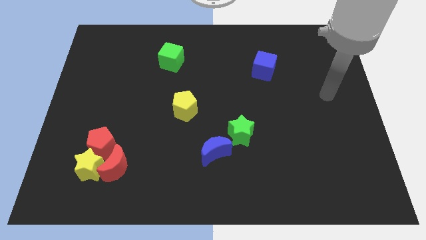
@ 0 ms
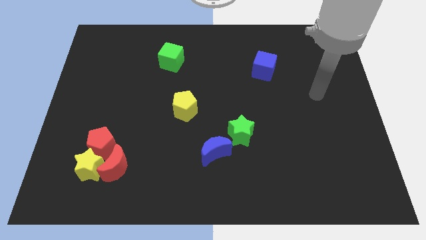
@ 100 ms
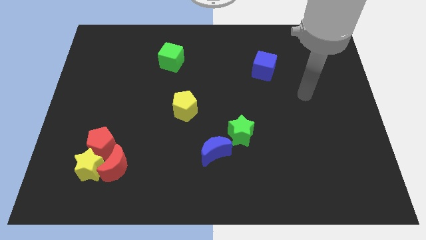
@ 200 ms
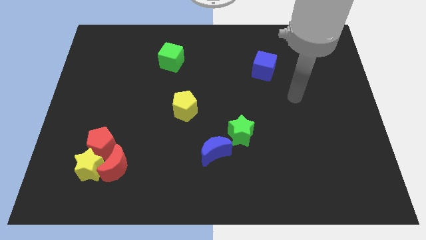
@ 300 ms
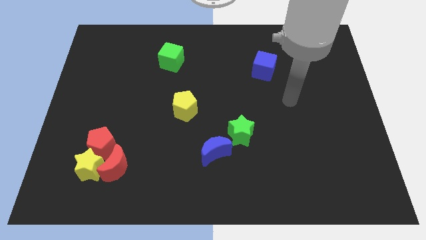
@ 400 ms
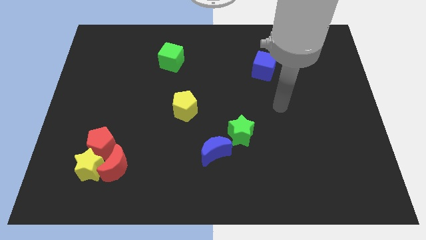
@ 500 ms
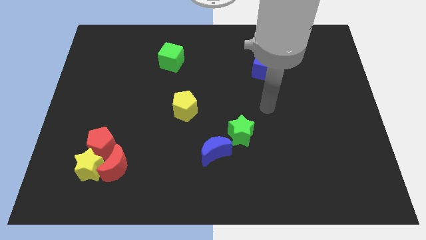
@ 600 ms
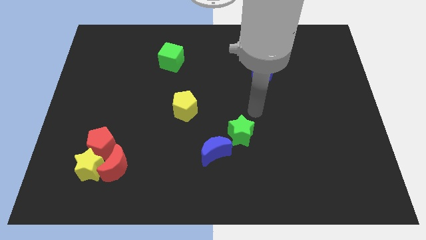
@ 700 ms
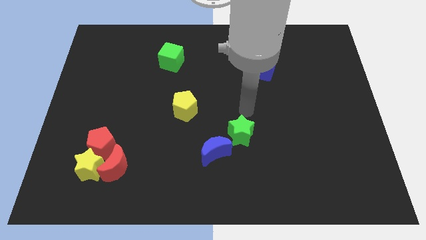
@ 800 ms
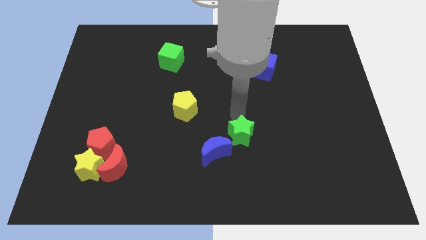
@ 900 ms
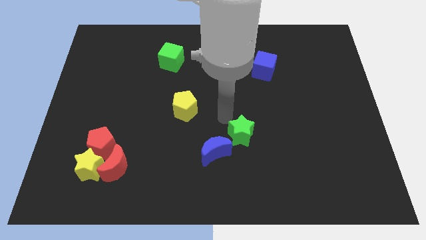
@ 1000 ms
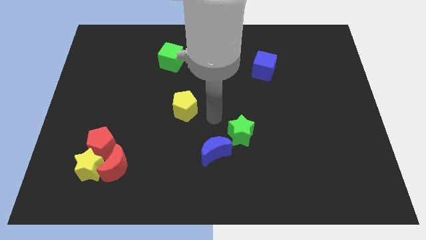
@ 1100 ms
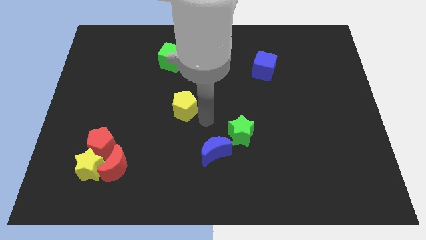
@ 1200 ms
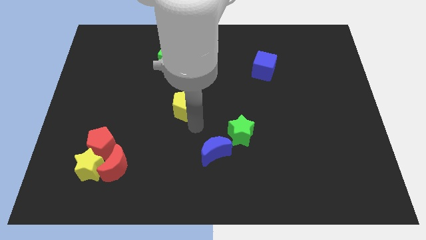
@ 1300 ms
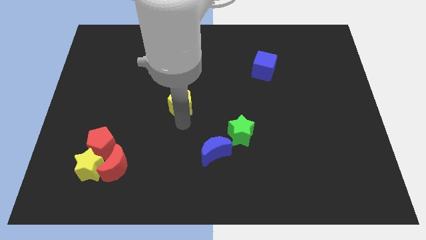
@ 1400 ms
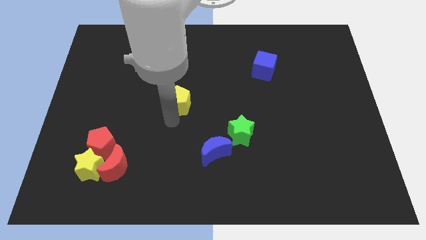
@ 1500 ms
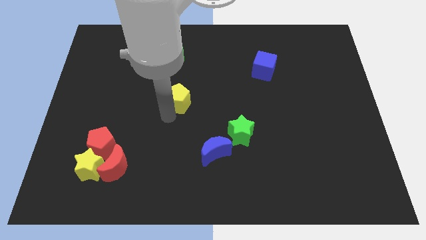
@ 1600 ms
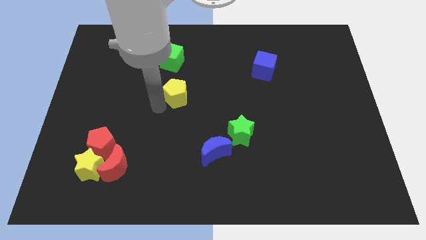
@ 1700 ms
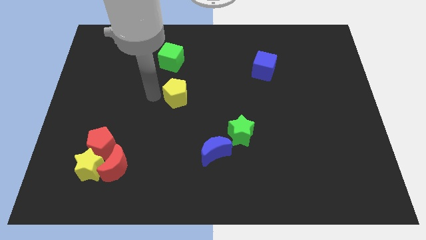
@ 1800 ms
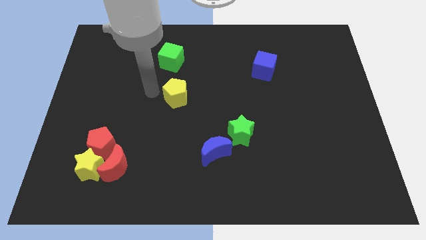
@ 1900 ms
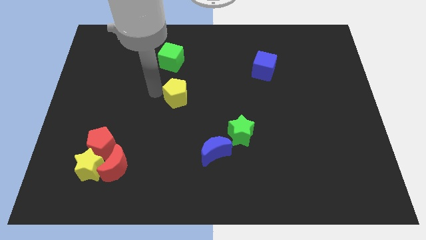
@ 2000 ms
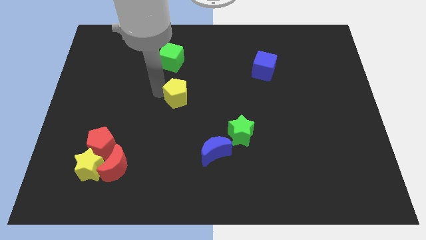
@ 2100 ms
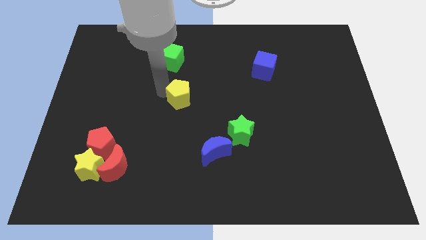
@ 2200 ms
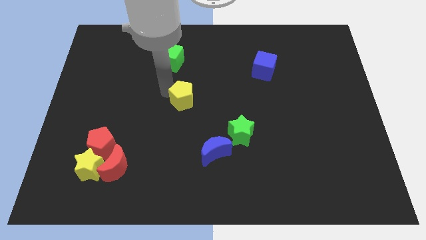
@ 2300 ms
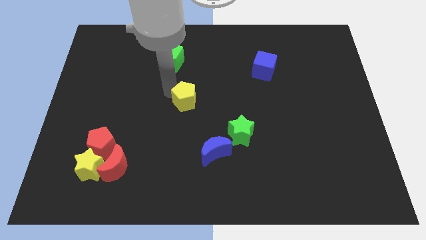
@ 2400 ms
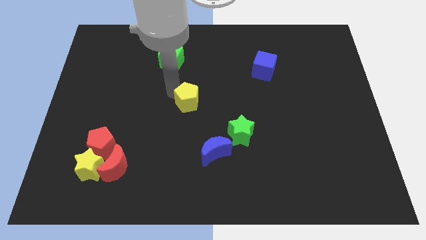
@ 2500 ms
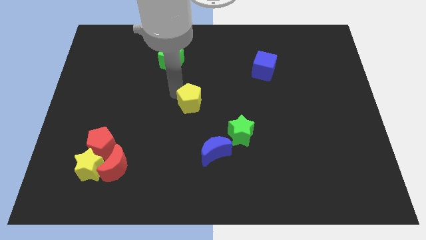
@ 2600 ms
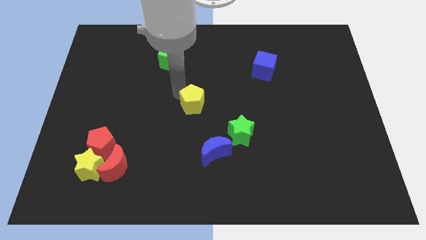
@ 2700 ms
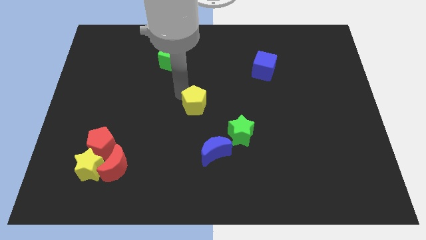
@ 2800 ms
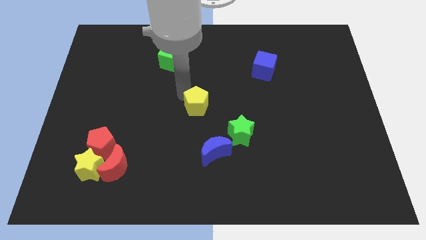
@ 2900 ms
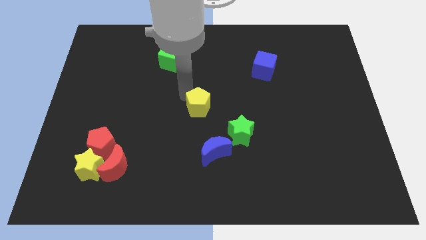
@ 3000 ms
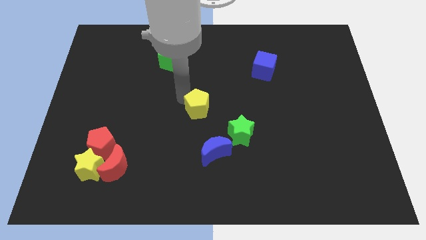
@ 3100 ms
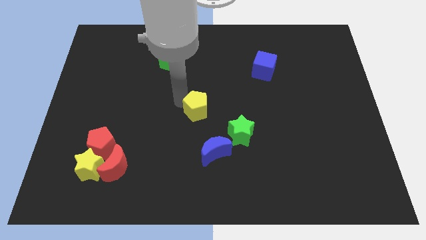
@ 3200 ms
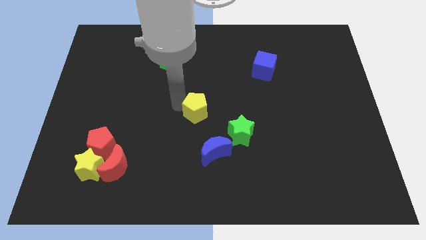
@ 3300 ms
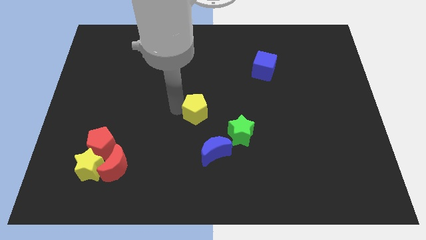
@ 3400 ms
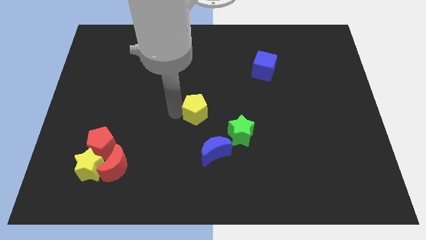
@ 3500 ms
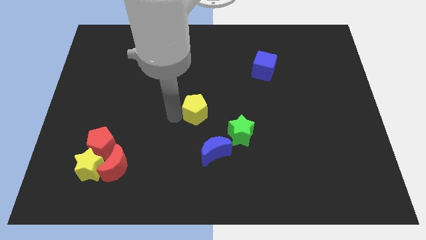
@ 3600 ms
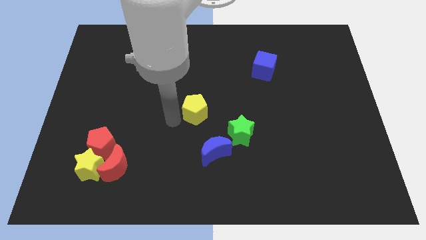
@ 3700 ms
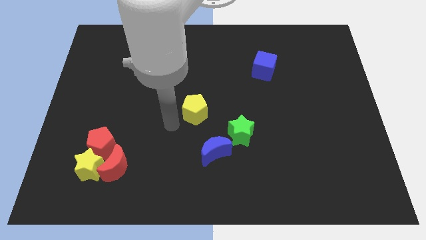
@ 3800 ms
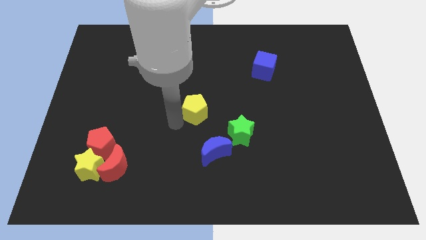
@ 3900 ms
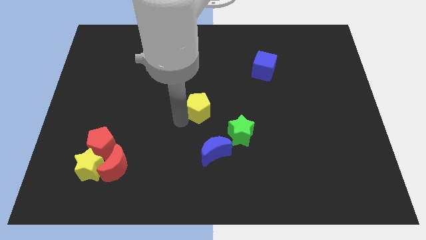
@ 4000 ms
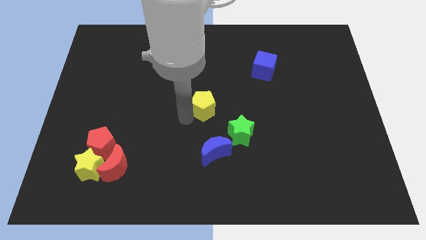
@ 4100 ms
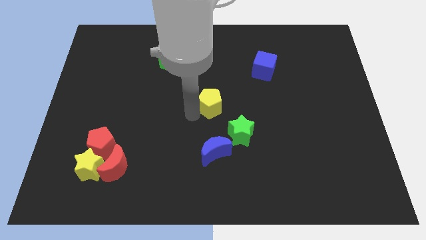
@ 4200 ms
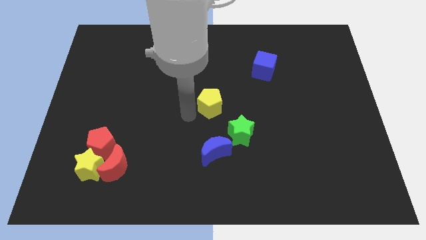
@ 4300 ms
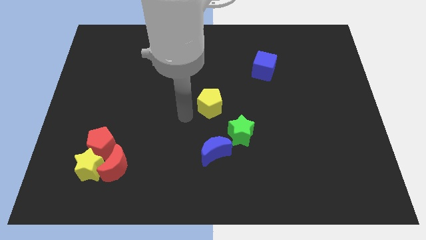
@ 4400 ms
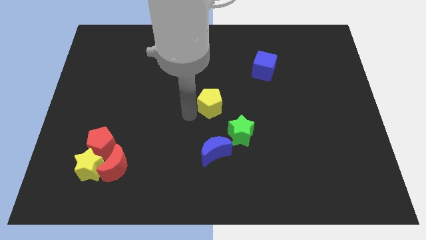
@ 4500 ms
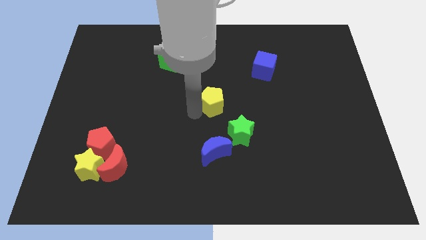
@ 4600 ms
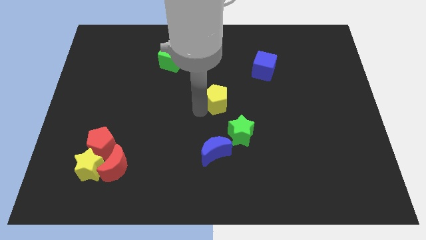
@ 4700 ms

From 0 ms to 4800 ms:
push the yellow pentagon right slightly

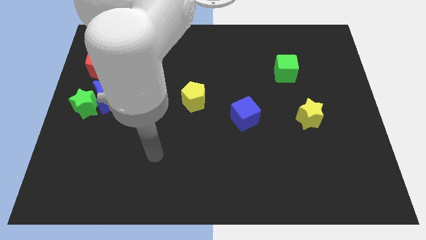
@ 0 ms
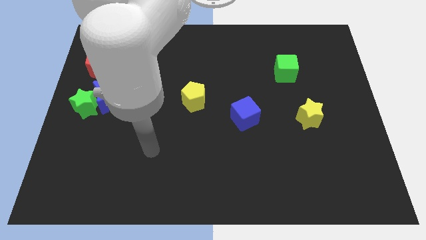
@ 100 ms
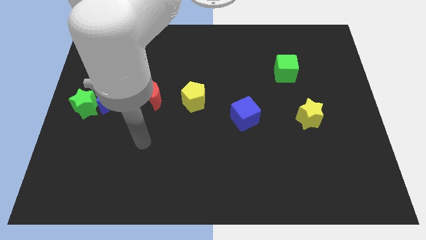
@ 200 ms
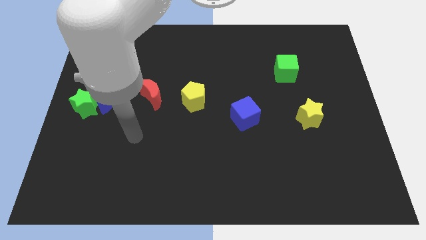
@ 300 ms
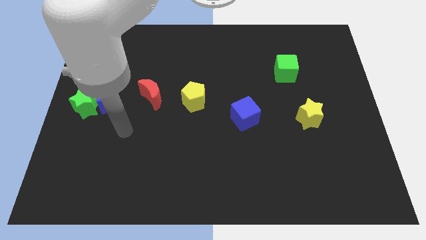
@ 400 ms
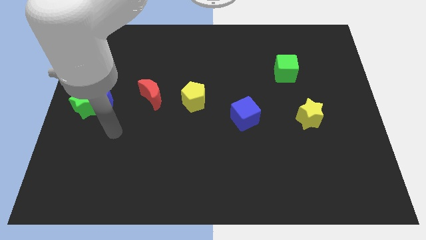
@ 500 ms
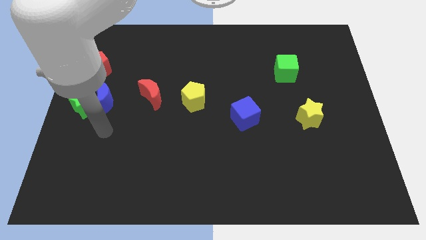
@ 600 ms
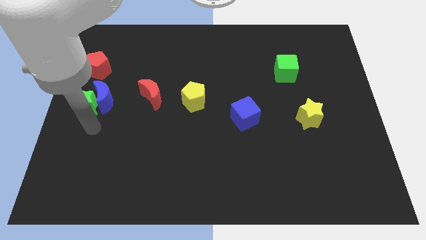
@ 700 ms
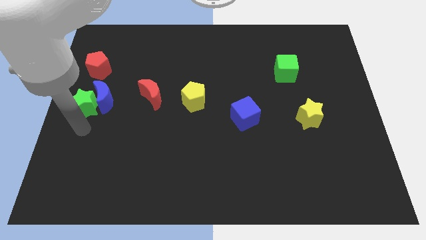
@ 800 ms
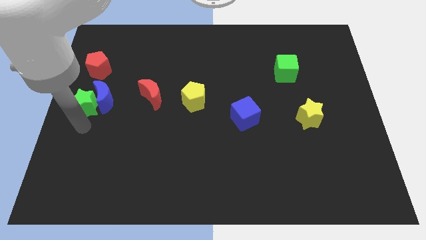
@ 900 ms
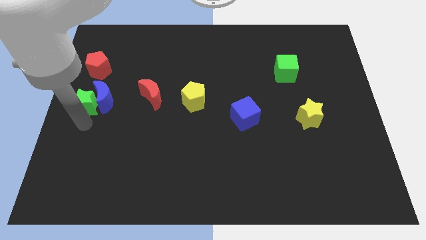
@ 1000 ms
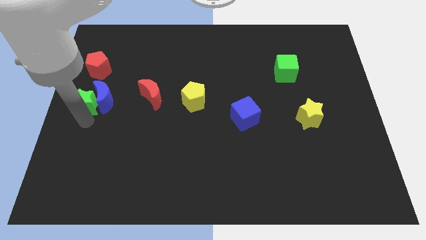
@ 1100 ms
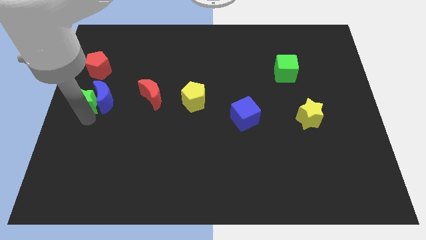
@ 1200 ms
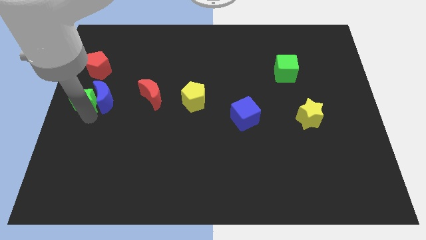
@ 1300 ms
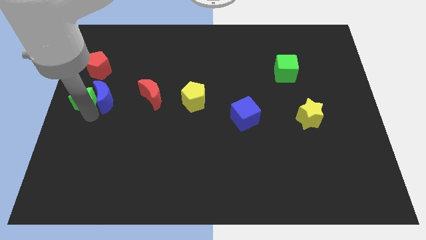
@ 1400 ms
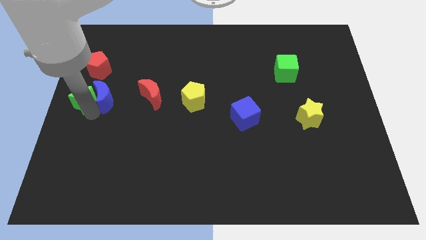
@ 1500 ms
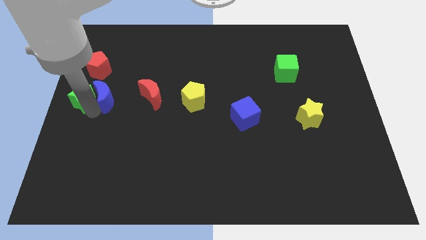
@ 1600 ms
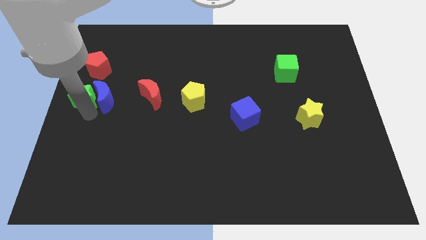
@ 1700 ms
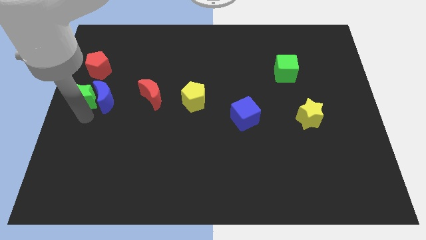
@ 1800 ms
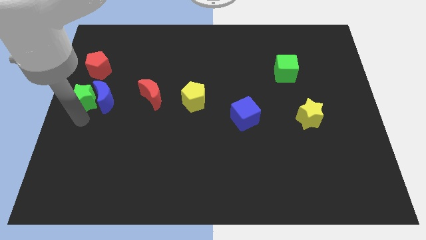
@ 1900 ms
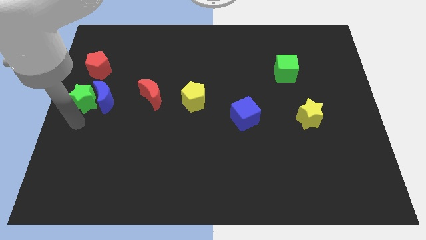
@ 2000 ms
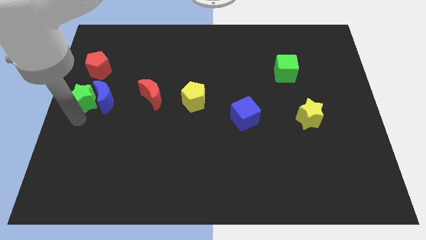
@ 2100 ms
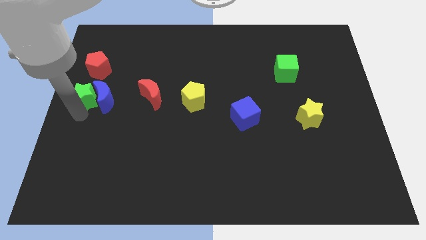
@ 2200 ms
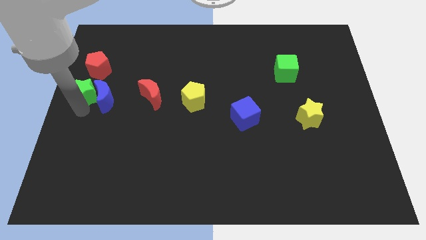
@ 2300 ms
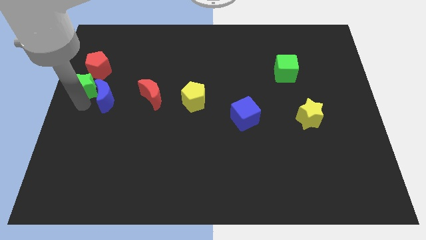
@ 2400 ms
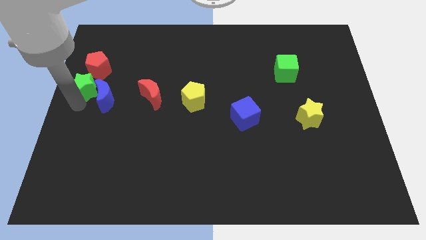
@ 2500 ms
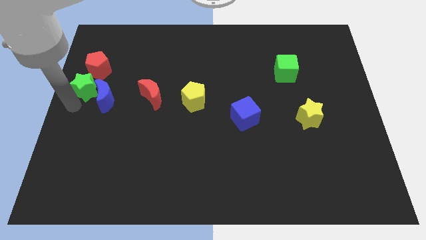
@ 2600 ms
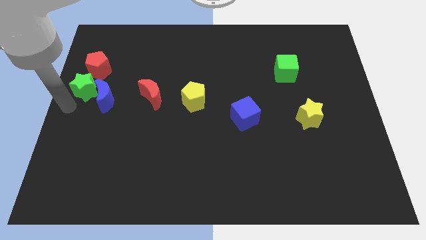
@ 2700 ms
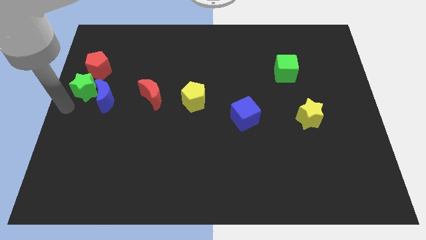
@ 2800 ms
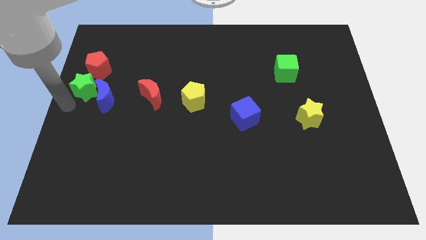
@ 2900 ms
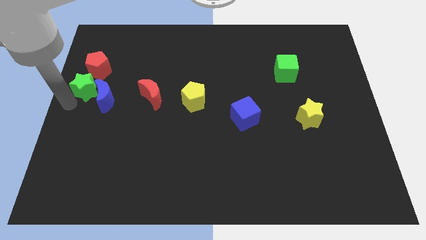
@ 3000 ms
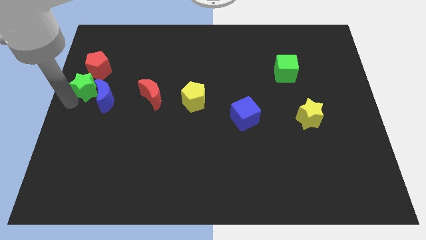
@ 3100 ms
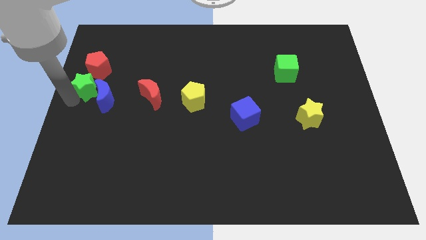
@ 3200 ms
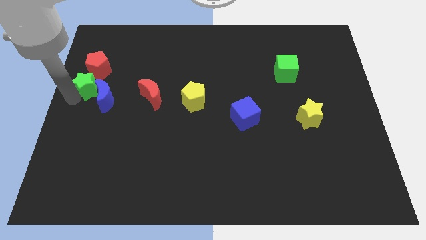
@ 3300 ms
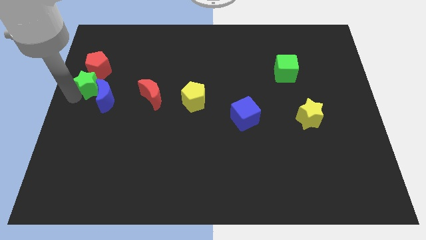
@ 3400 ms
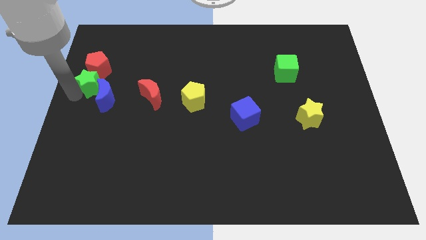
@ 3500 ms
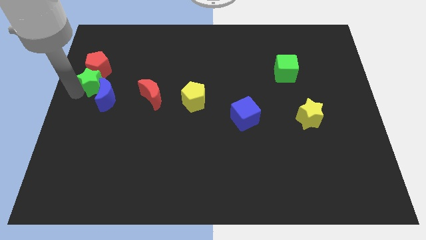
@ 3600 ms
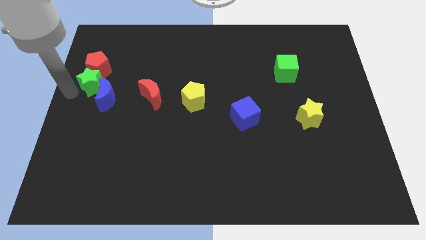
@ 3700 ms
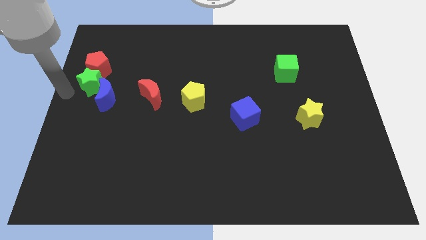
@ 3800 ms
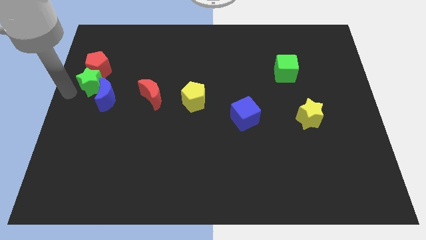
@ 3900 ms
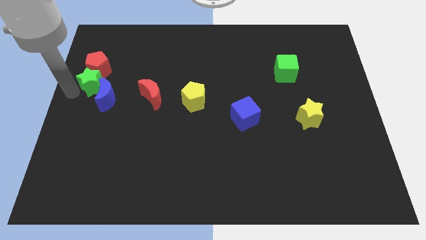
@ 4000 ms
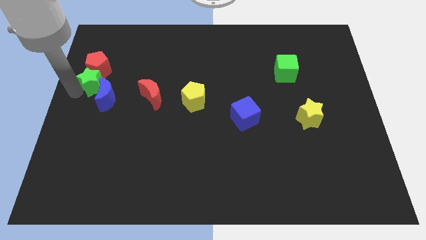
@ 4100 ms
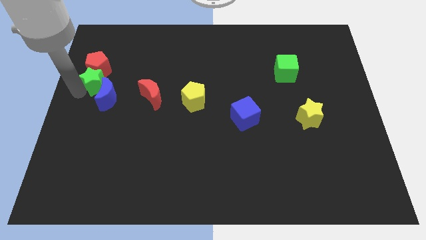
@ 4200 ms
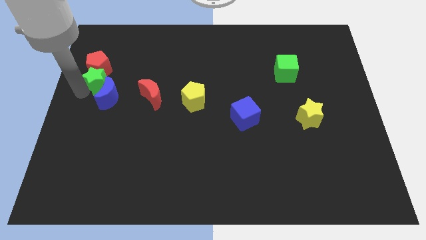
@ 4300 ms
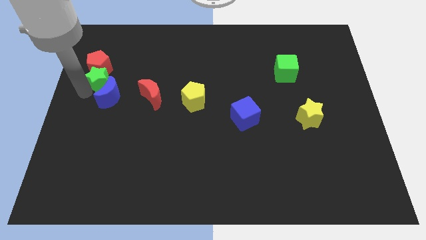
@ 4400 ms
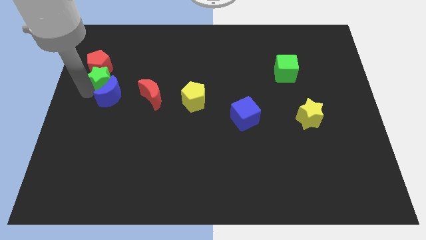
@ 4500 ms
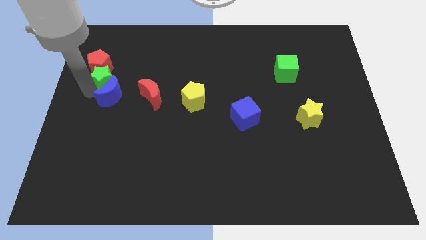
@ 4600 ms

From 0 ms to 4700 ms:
slide the green star up and to the right a little bit
